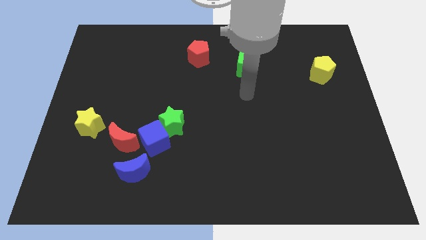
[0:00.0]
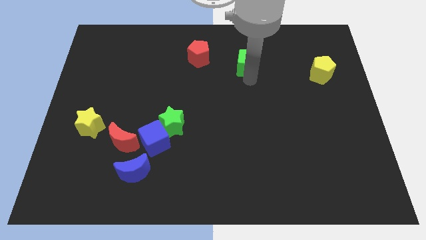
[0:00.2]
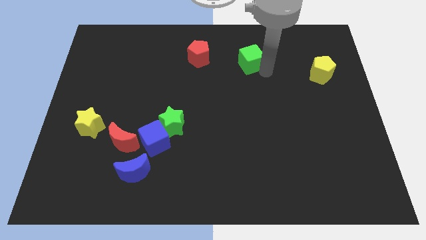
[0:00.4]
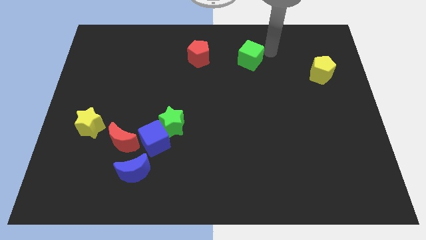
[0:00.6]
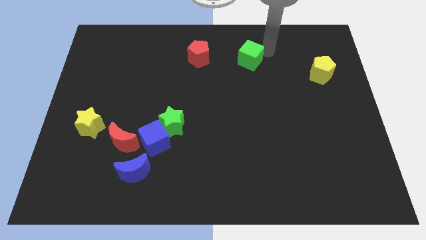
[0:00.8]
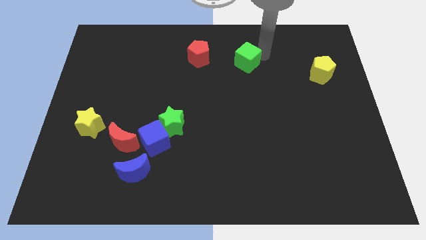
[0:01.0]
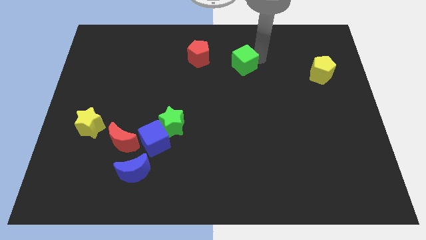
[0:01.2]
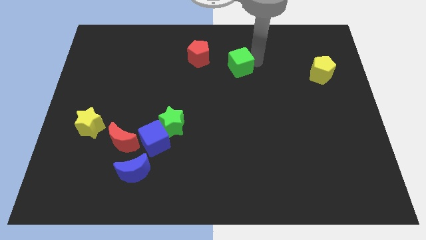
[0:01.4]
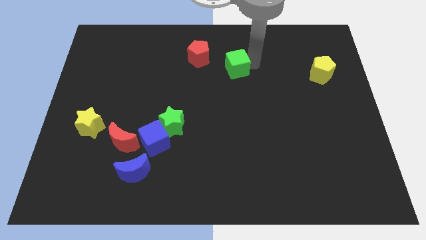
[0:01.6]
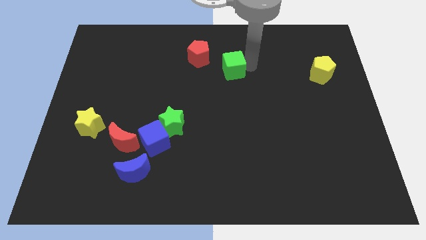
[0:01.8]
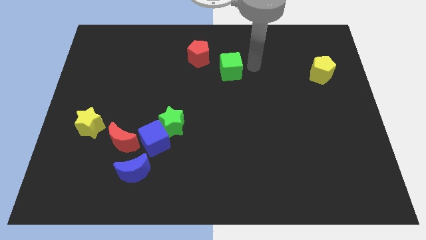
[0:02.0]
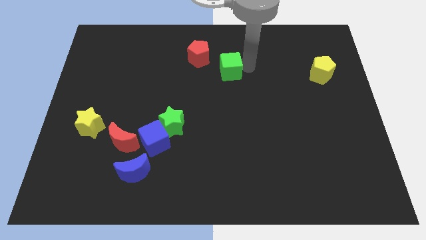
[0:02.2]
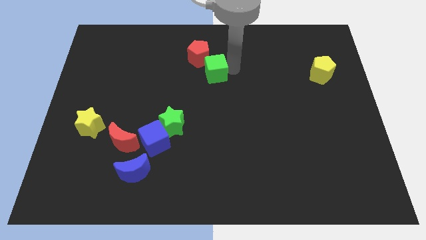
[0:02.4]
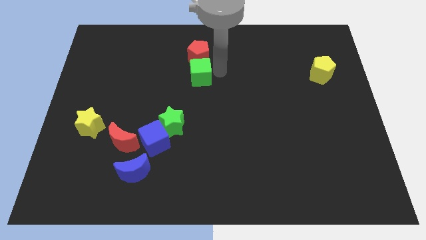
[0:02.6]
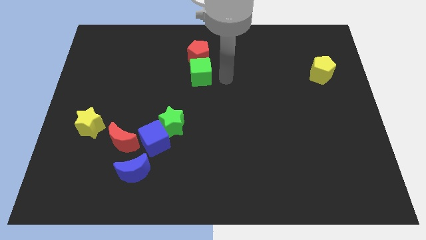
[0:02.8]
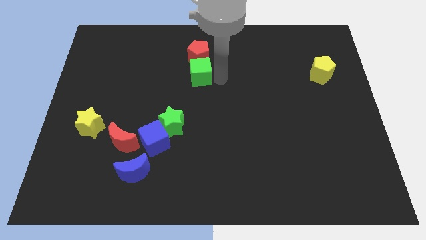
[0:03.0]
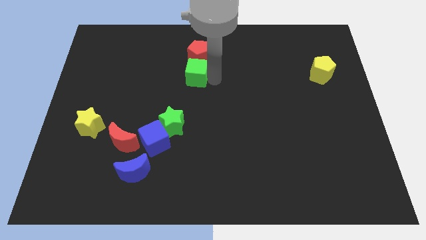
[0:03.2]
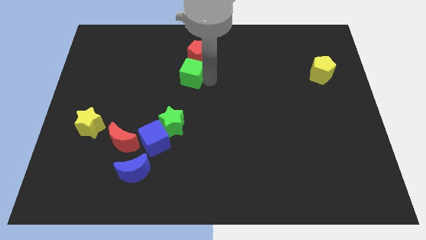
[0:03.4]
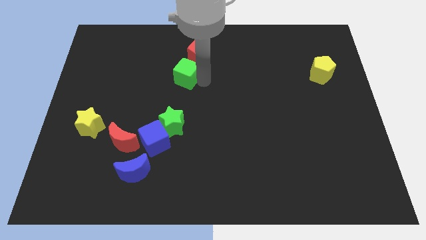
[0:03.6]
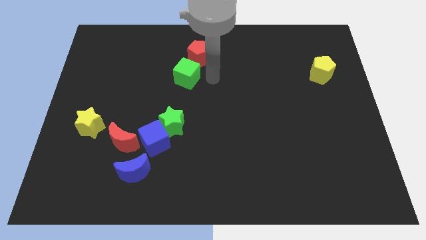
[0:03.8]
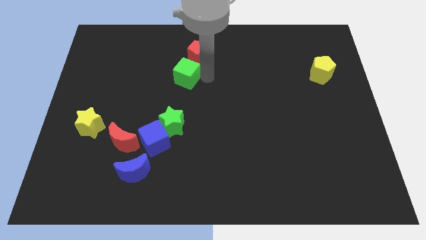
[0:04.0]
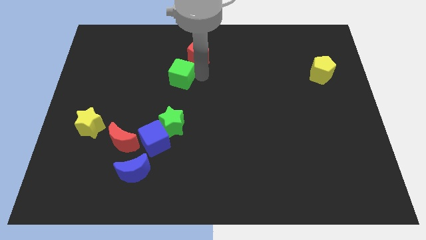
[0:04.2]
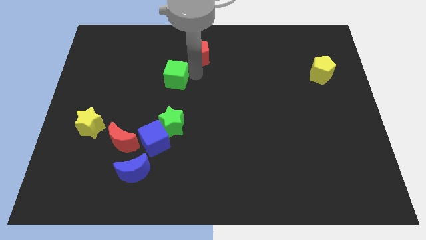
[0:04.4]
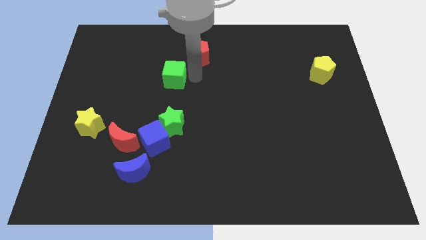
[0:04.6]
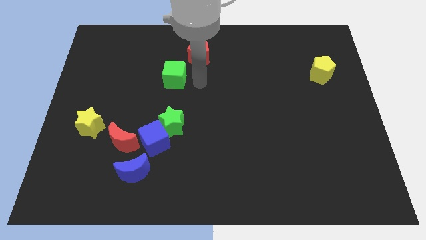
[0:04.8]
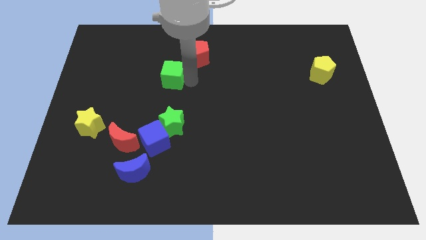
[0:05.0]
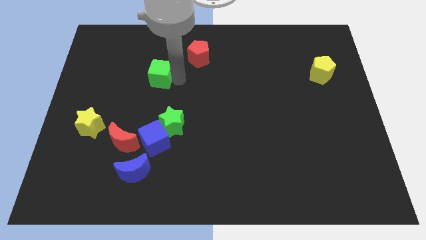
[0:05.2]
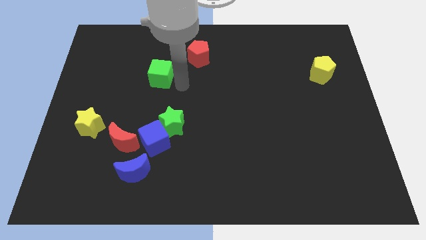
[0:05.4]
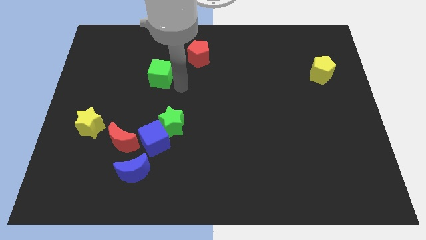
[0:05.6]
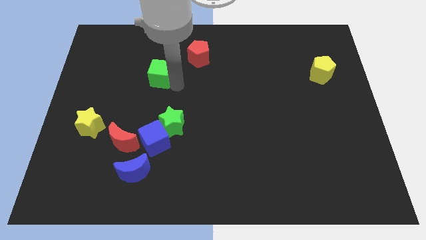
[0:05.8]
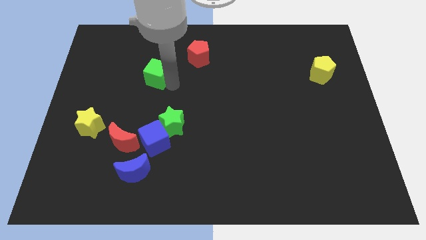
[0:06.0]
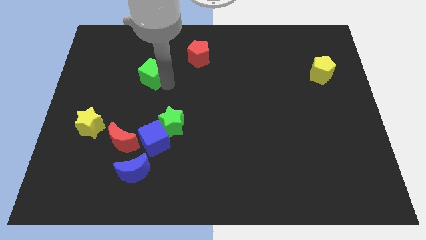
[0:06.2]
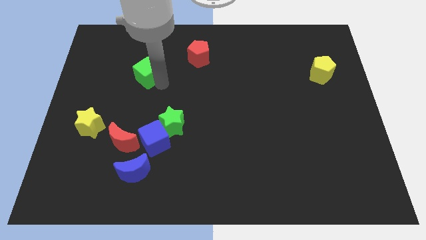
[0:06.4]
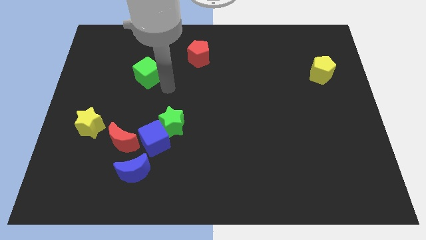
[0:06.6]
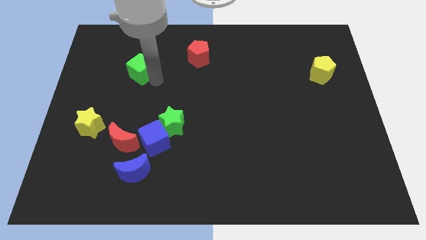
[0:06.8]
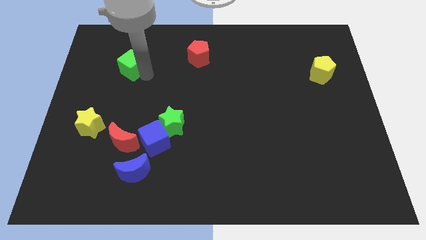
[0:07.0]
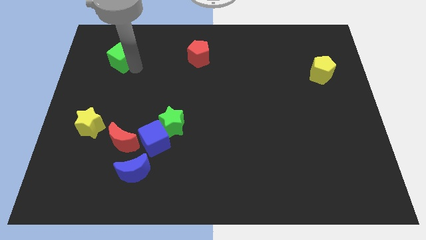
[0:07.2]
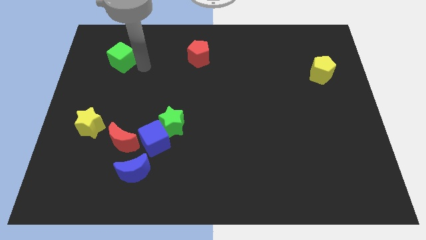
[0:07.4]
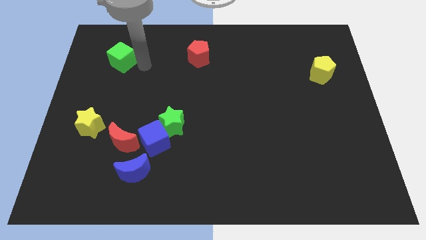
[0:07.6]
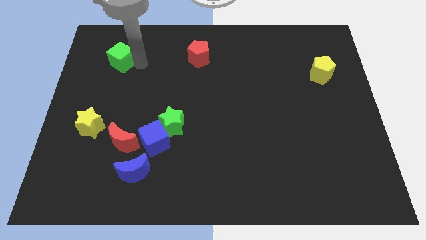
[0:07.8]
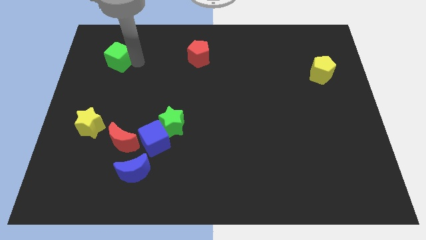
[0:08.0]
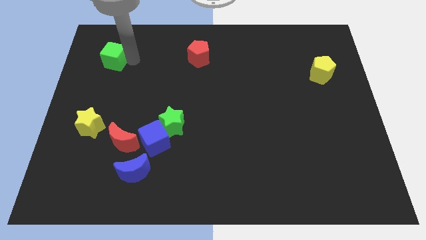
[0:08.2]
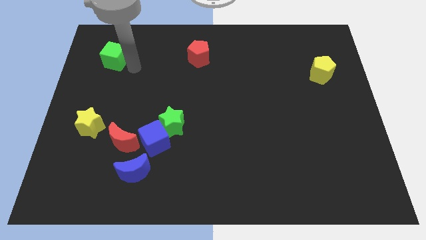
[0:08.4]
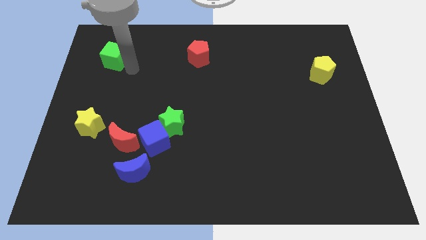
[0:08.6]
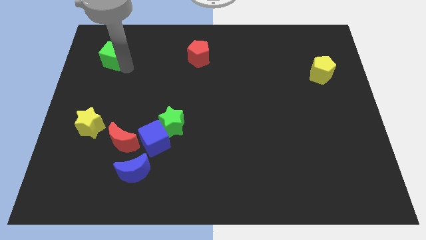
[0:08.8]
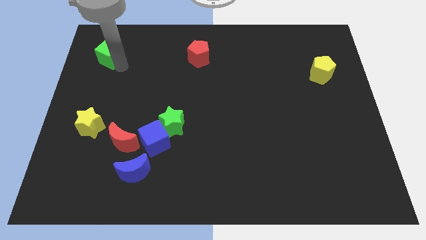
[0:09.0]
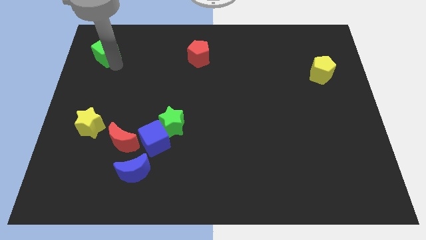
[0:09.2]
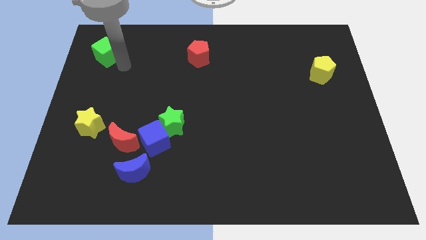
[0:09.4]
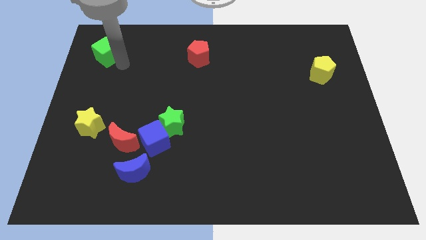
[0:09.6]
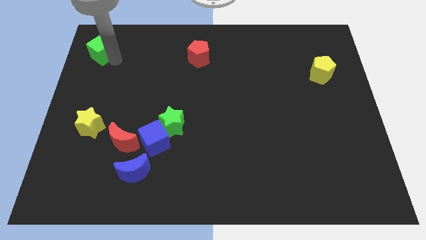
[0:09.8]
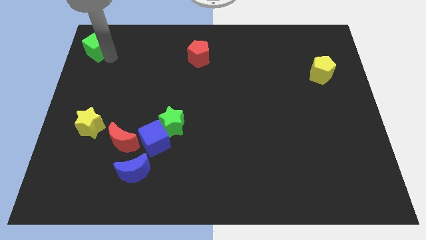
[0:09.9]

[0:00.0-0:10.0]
push the green cube to the top left corner

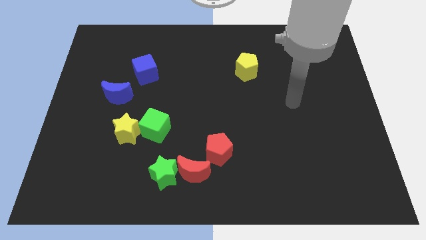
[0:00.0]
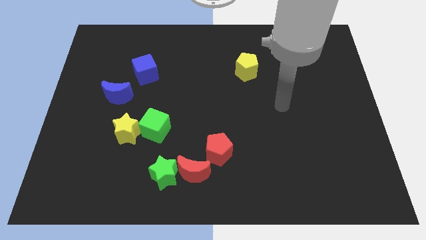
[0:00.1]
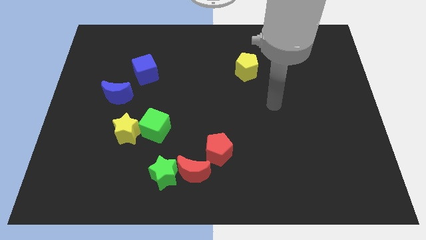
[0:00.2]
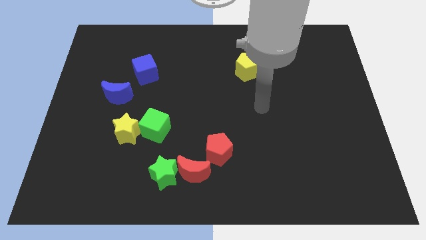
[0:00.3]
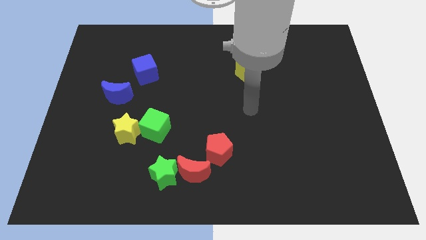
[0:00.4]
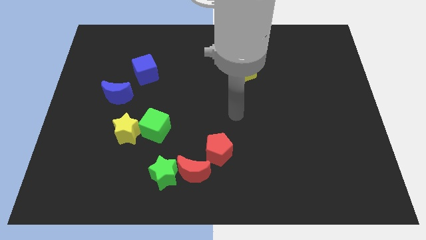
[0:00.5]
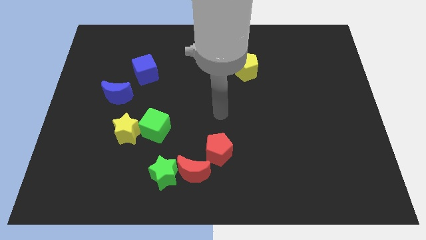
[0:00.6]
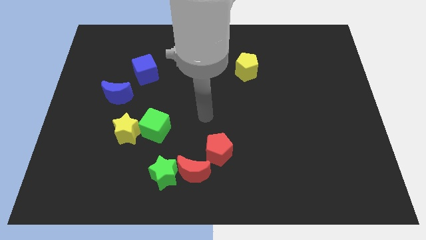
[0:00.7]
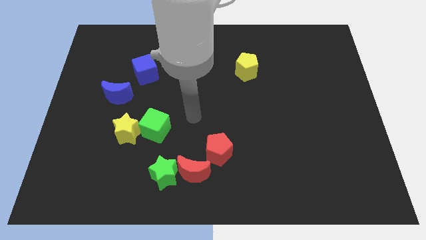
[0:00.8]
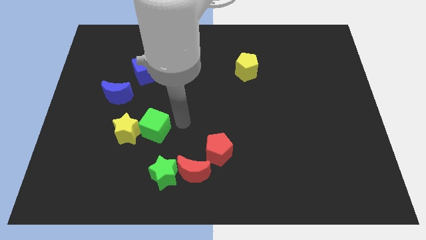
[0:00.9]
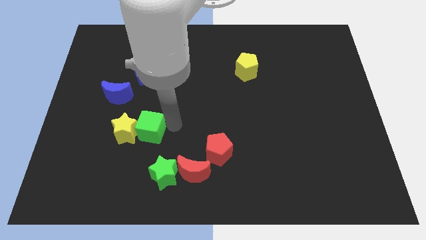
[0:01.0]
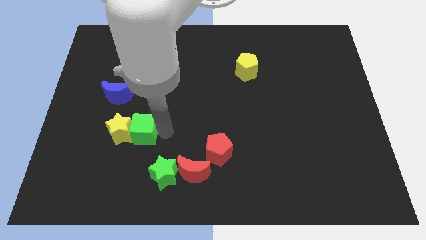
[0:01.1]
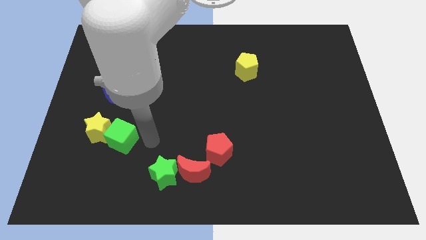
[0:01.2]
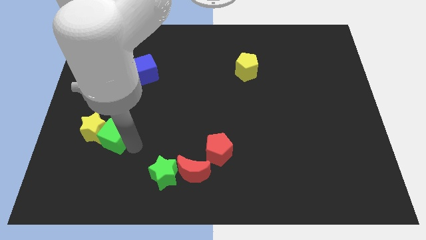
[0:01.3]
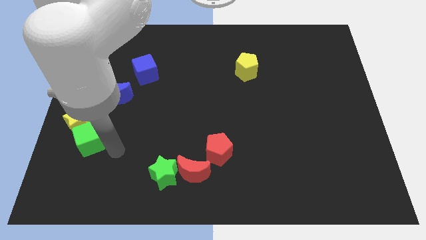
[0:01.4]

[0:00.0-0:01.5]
push the yellow star to the center left
